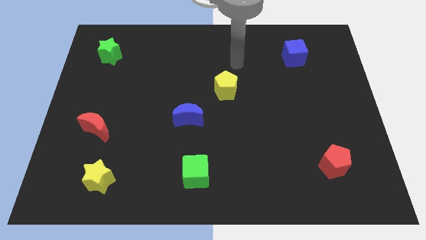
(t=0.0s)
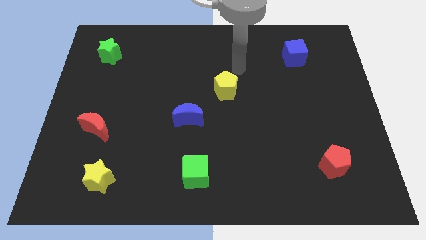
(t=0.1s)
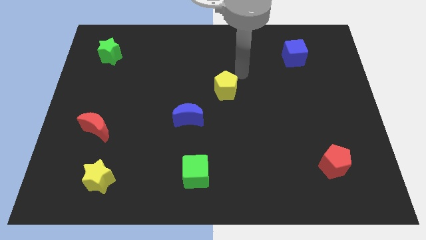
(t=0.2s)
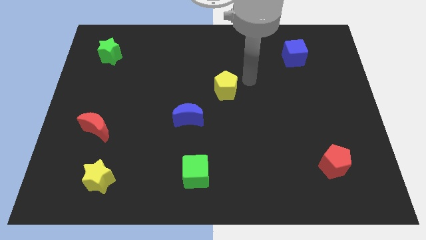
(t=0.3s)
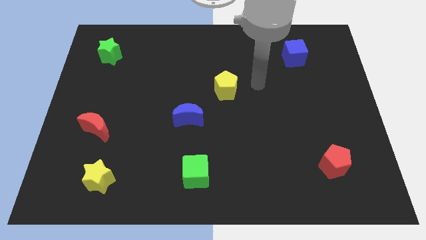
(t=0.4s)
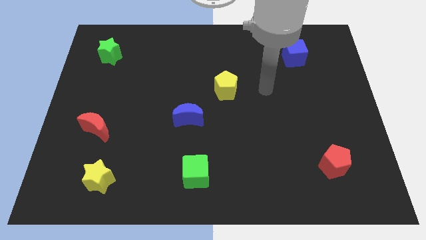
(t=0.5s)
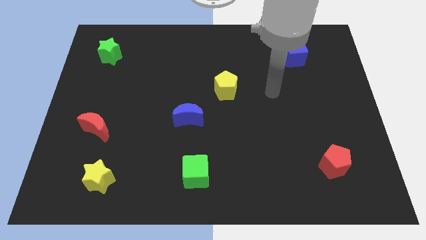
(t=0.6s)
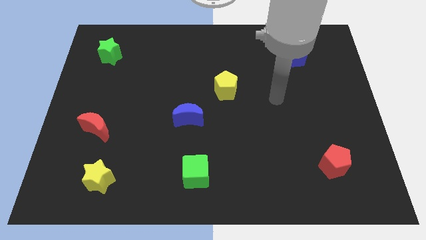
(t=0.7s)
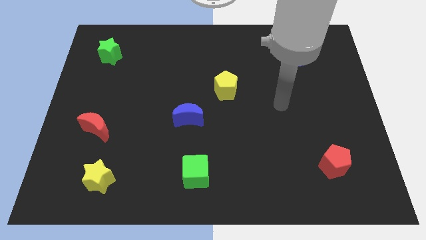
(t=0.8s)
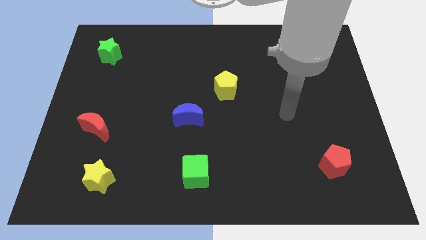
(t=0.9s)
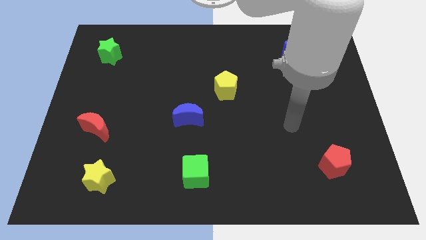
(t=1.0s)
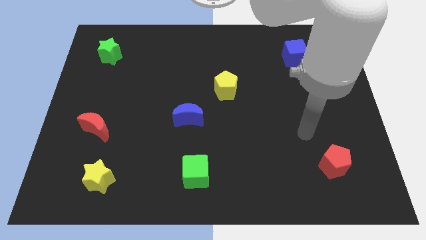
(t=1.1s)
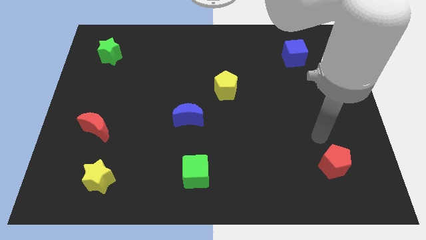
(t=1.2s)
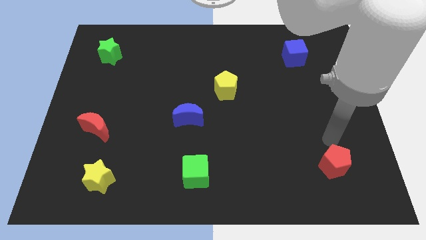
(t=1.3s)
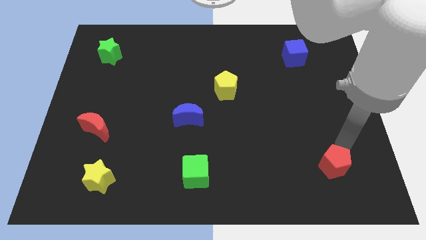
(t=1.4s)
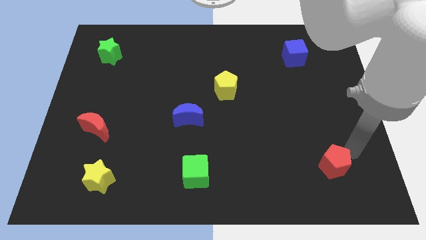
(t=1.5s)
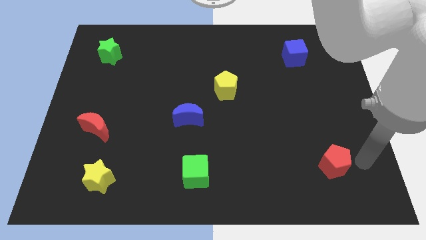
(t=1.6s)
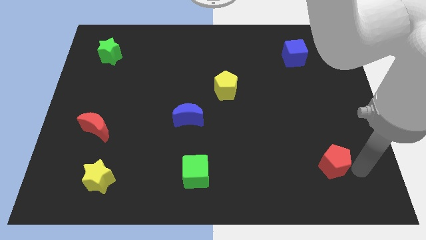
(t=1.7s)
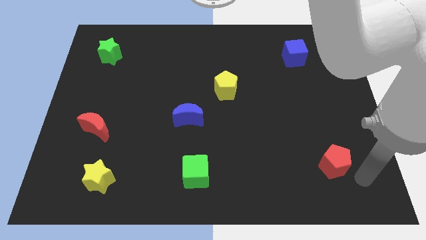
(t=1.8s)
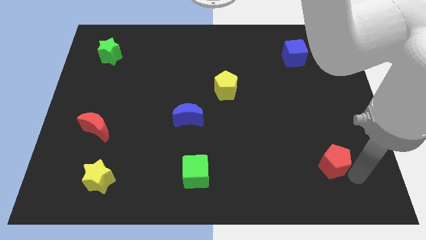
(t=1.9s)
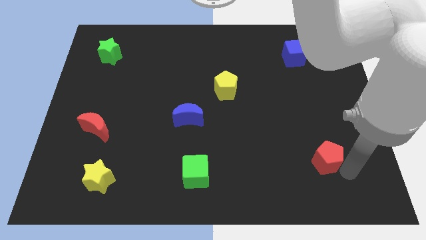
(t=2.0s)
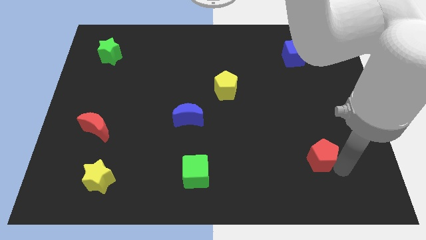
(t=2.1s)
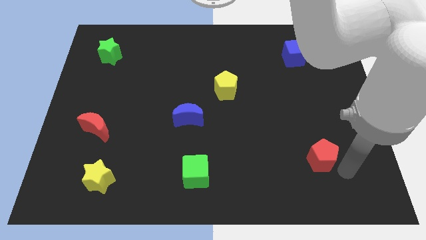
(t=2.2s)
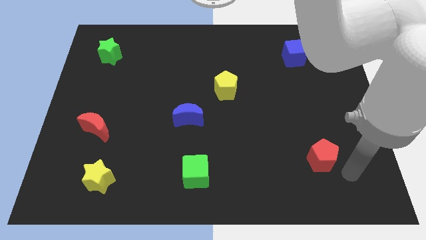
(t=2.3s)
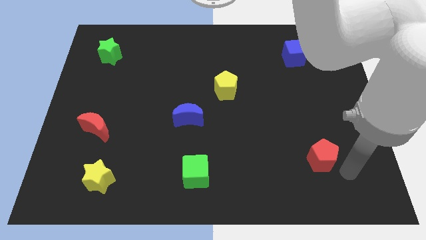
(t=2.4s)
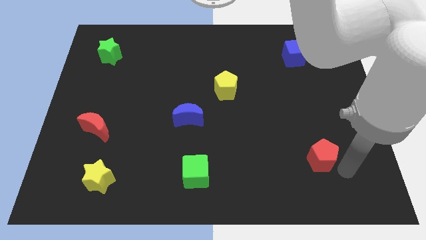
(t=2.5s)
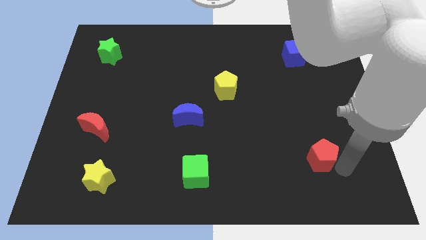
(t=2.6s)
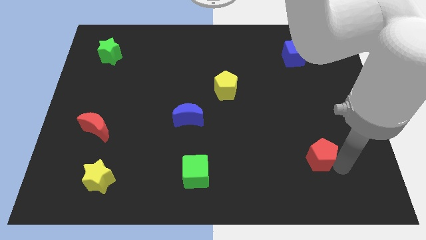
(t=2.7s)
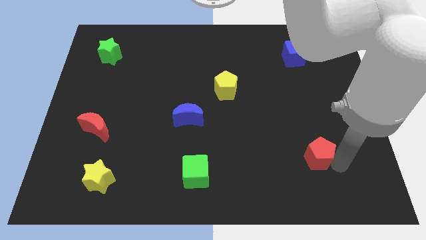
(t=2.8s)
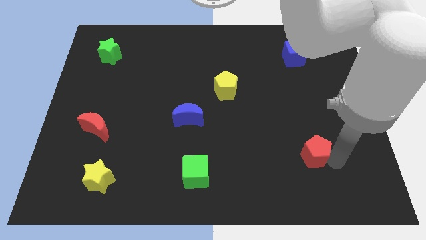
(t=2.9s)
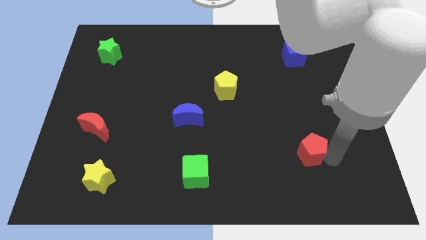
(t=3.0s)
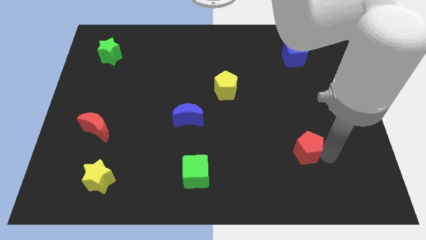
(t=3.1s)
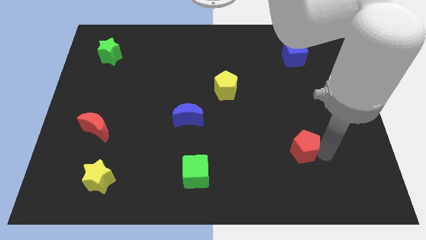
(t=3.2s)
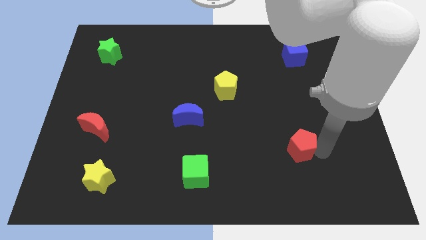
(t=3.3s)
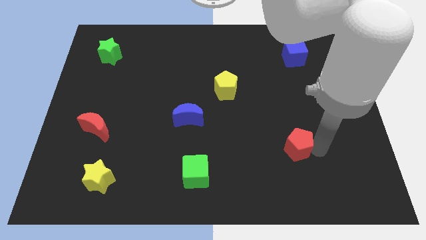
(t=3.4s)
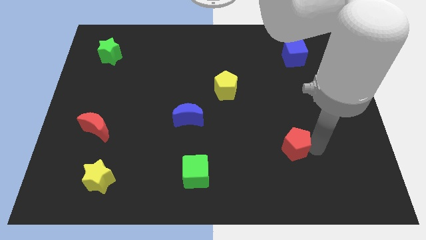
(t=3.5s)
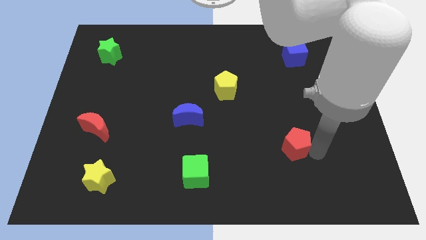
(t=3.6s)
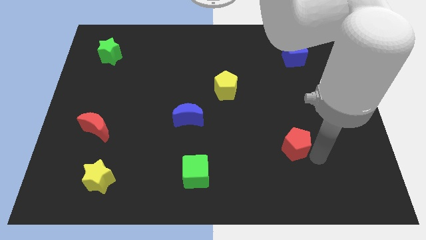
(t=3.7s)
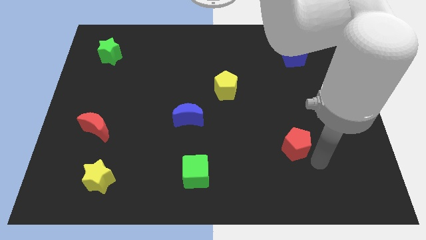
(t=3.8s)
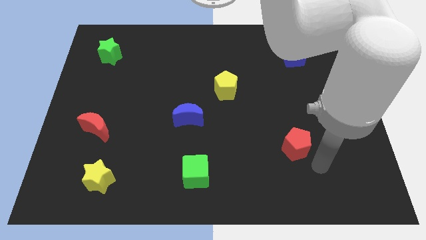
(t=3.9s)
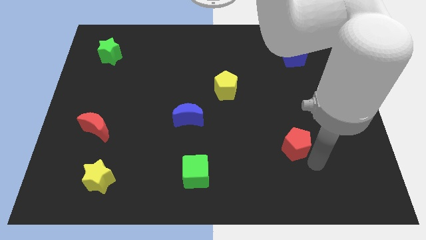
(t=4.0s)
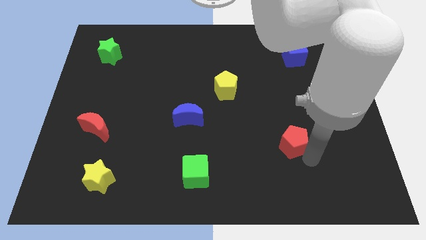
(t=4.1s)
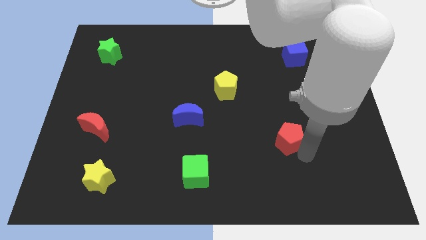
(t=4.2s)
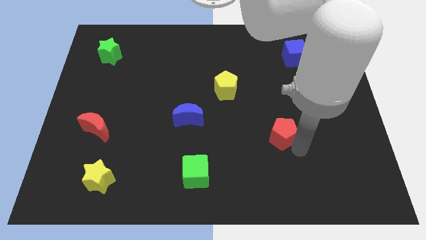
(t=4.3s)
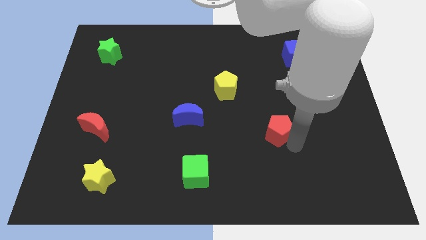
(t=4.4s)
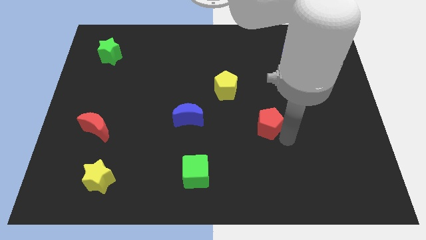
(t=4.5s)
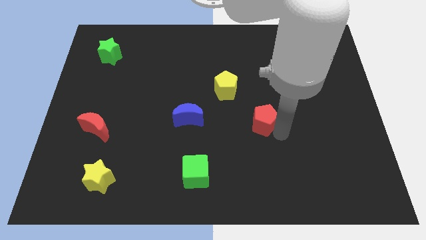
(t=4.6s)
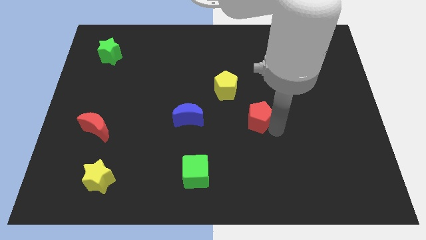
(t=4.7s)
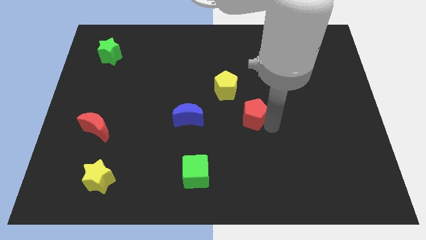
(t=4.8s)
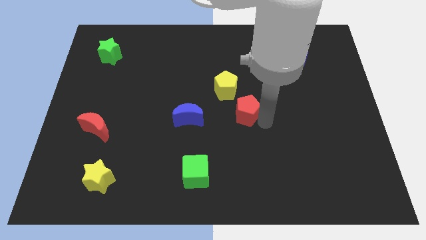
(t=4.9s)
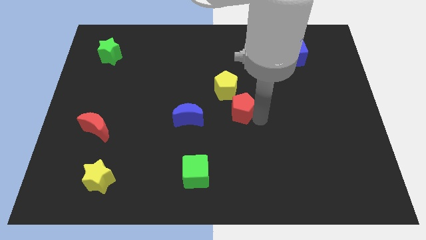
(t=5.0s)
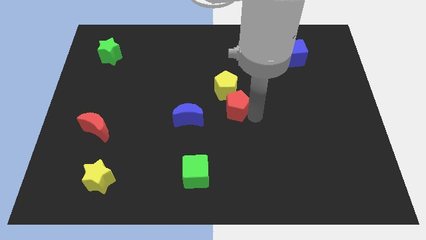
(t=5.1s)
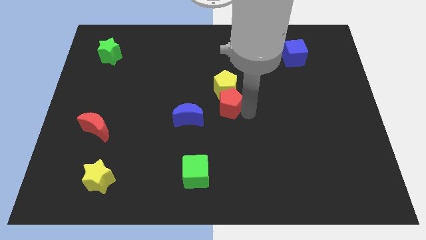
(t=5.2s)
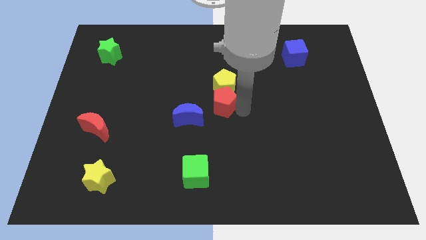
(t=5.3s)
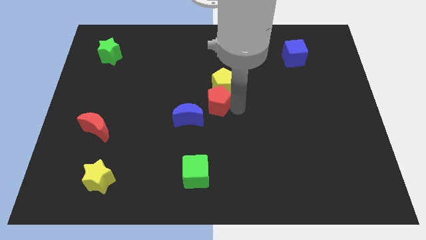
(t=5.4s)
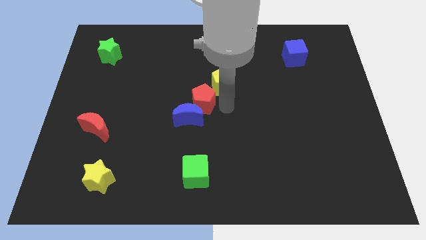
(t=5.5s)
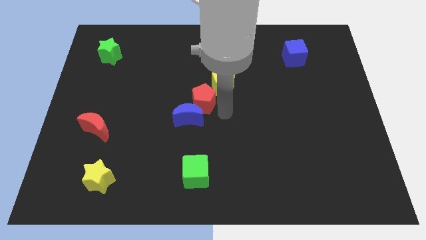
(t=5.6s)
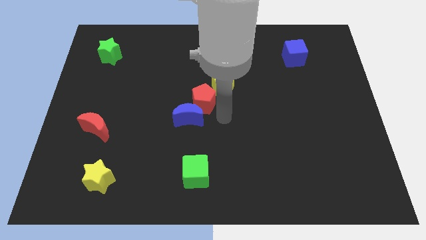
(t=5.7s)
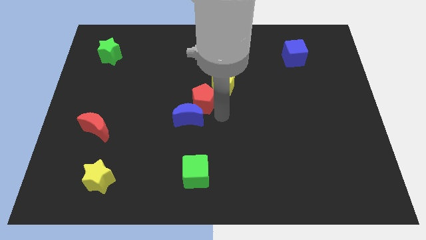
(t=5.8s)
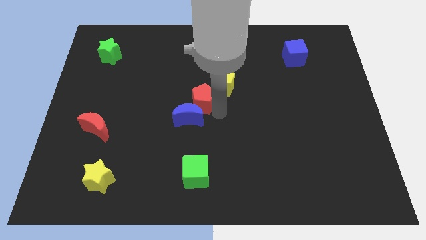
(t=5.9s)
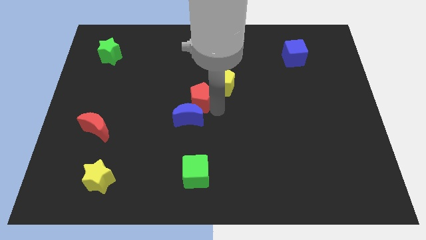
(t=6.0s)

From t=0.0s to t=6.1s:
slide the red pentagon left of the yellow pentagon
